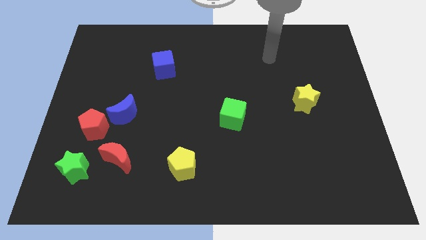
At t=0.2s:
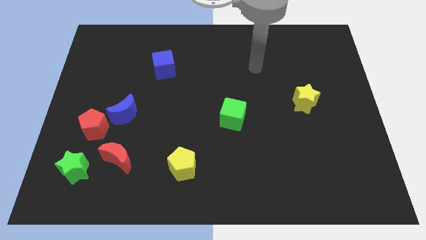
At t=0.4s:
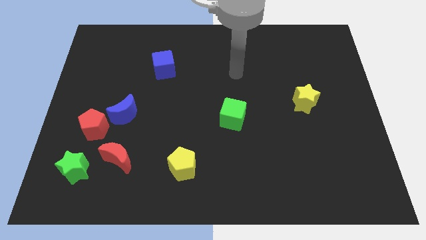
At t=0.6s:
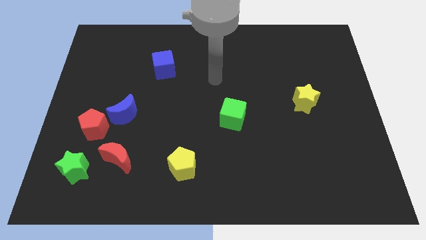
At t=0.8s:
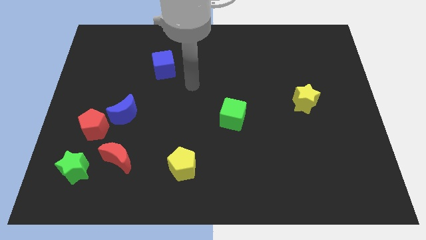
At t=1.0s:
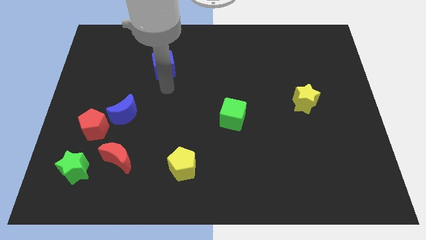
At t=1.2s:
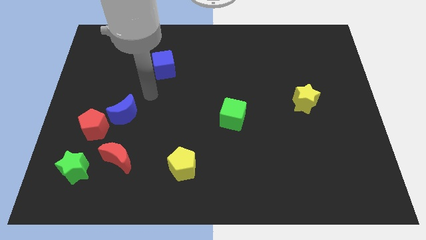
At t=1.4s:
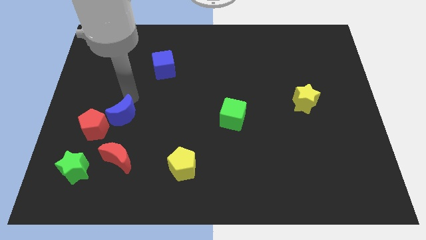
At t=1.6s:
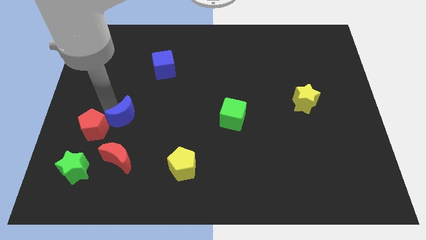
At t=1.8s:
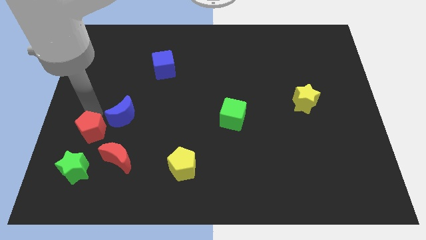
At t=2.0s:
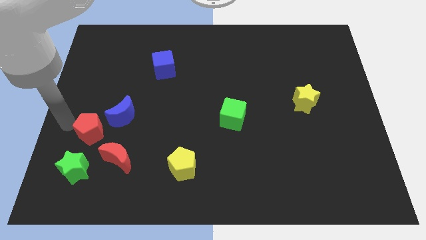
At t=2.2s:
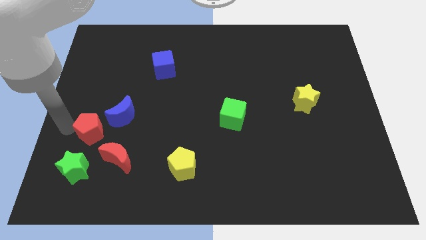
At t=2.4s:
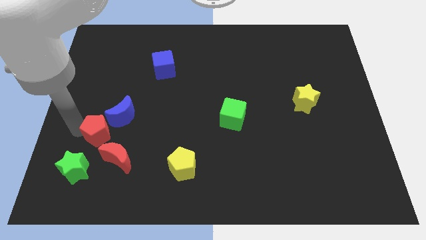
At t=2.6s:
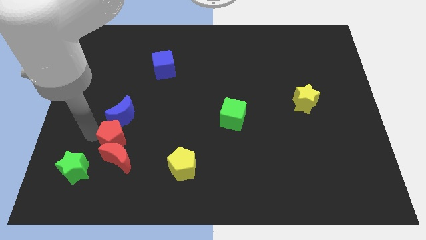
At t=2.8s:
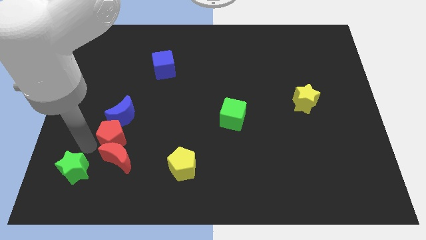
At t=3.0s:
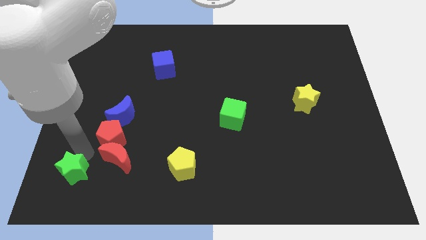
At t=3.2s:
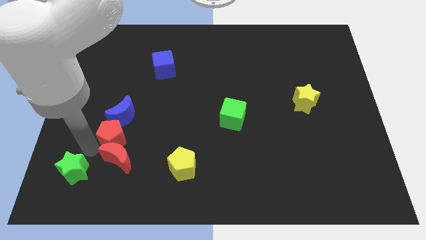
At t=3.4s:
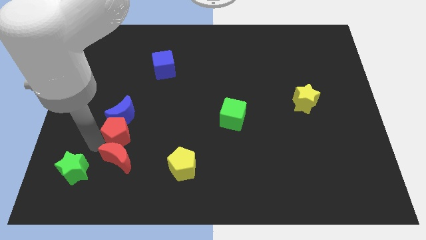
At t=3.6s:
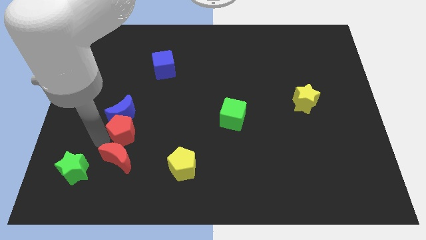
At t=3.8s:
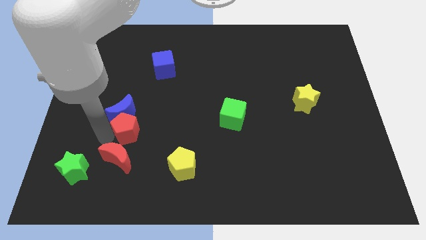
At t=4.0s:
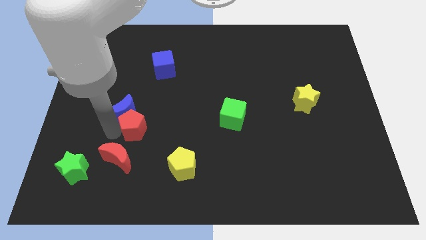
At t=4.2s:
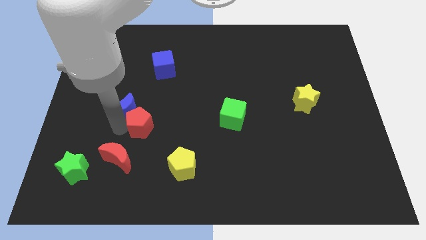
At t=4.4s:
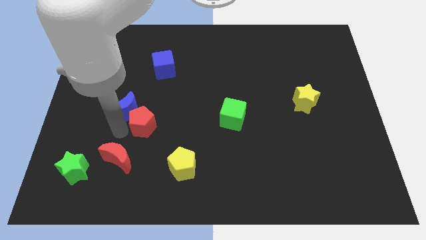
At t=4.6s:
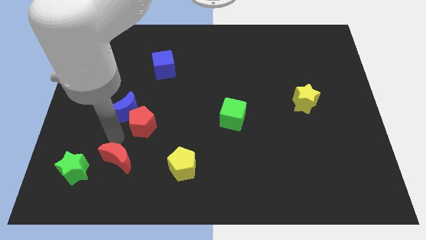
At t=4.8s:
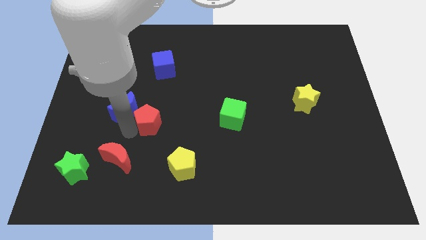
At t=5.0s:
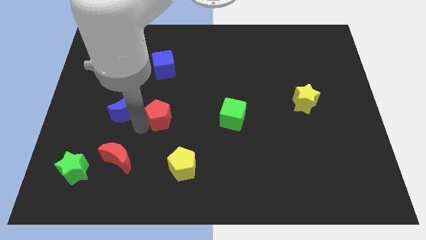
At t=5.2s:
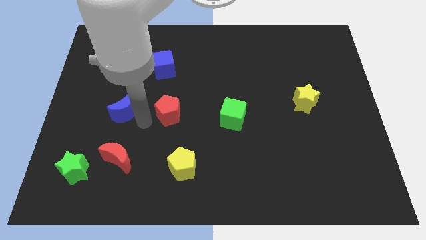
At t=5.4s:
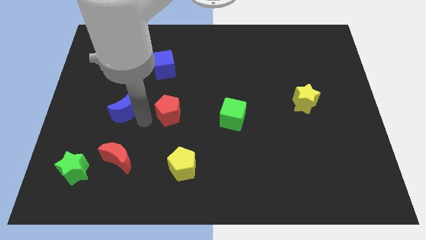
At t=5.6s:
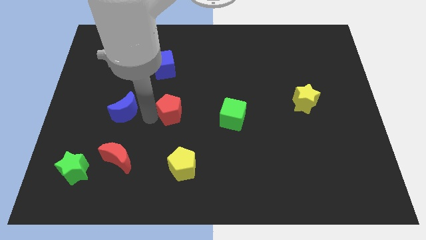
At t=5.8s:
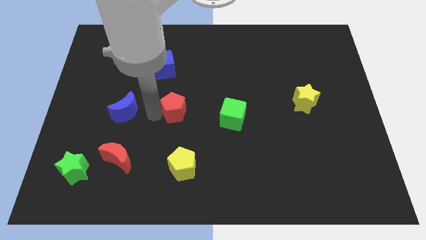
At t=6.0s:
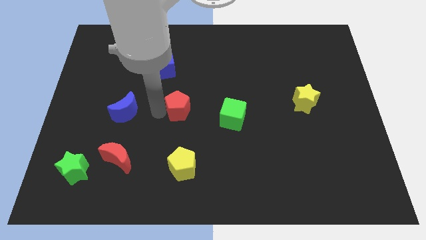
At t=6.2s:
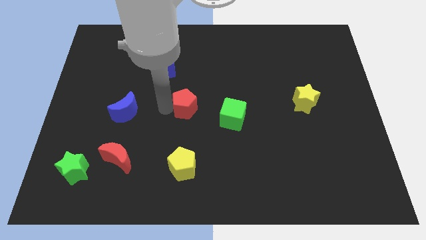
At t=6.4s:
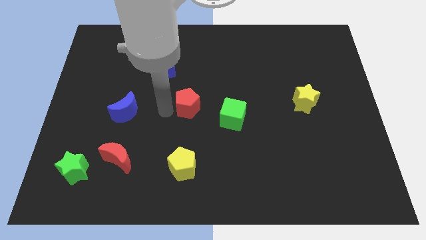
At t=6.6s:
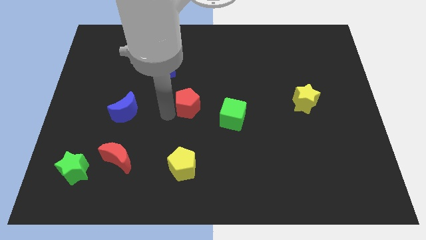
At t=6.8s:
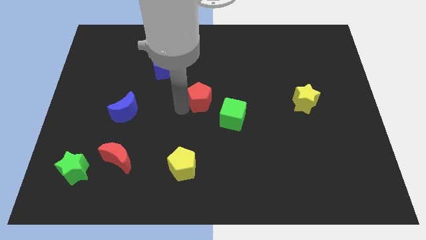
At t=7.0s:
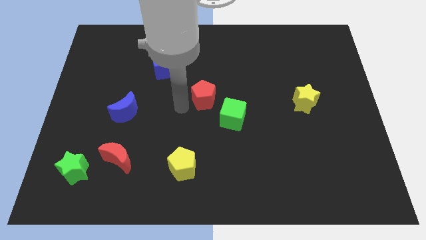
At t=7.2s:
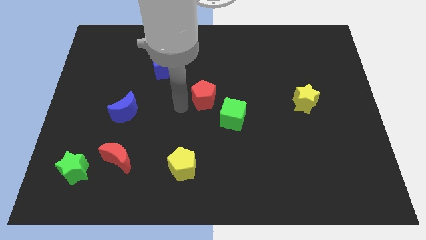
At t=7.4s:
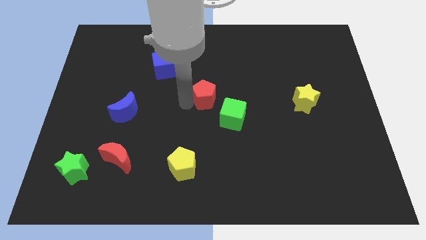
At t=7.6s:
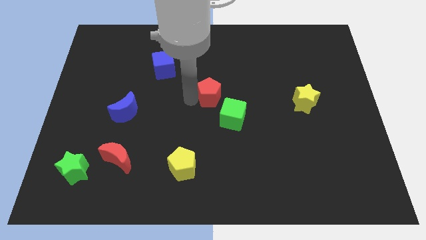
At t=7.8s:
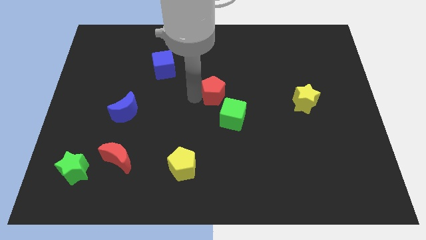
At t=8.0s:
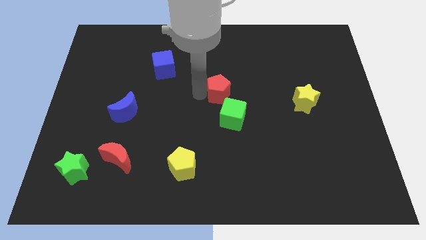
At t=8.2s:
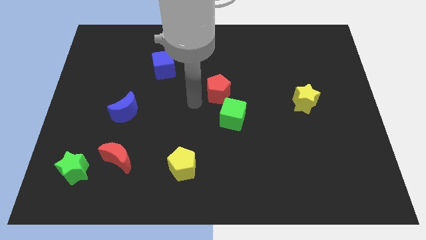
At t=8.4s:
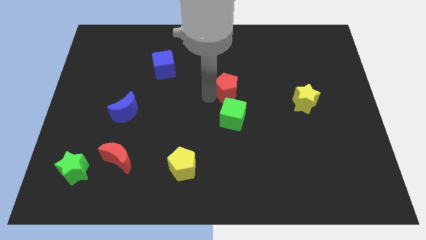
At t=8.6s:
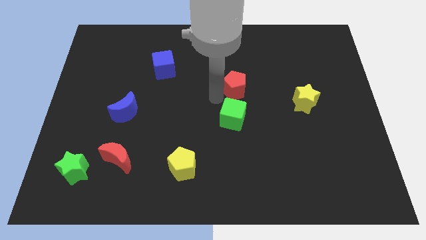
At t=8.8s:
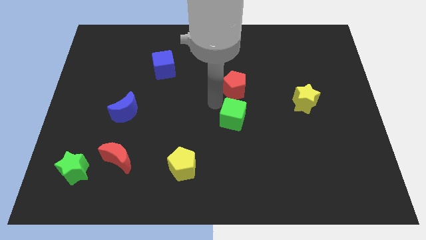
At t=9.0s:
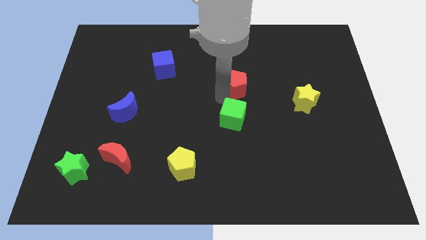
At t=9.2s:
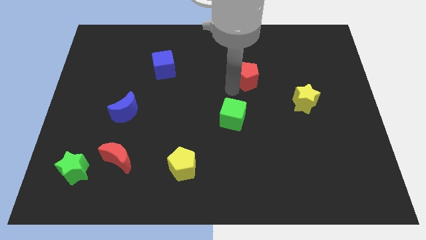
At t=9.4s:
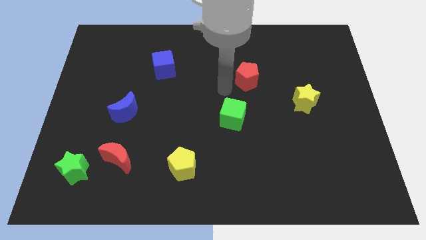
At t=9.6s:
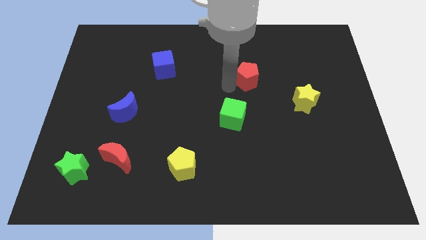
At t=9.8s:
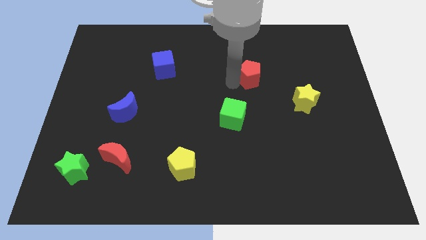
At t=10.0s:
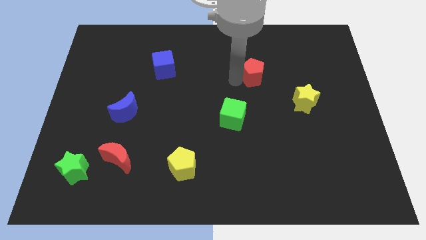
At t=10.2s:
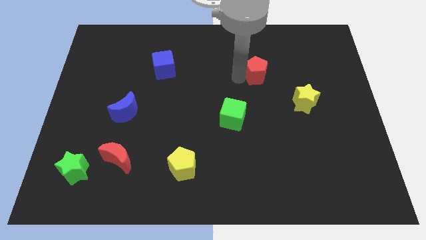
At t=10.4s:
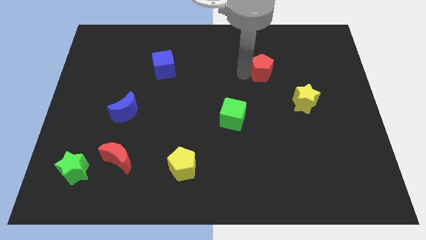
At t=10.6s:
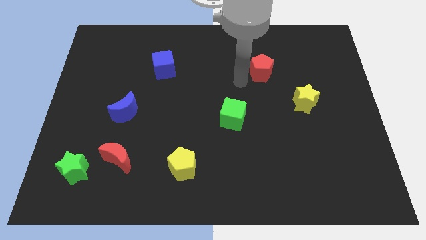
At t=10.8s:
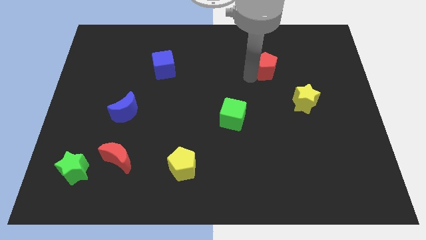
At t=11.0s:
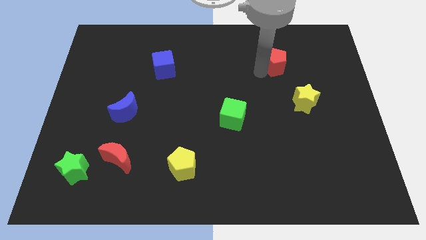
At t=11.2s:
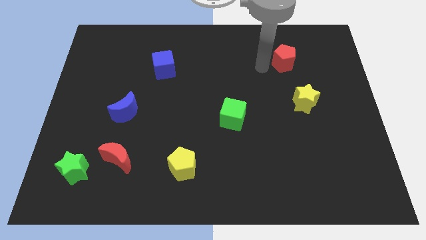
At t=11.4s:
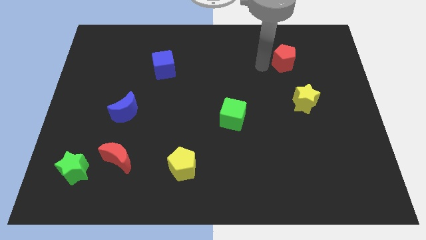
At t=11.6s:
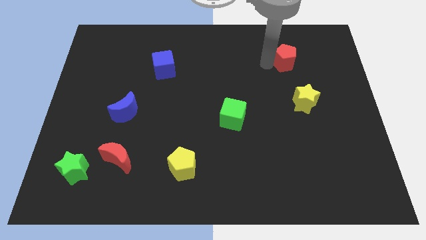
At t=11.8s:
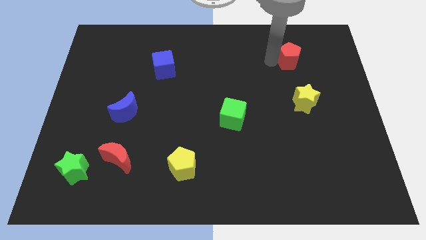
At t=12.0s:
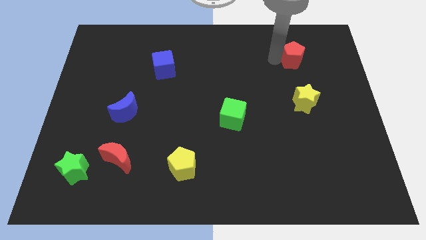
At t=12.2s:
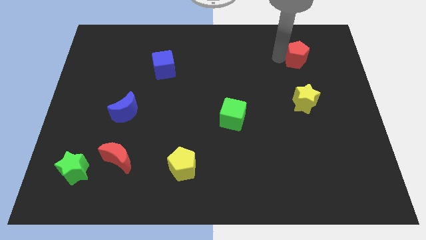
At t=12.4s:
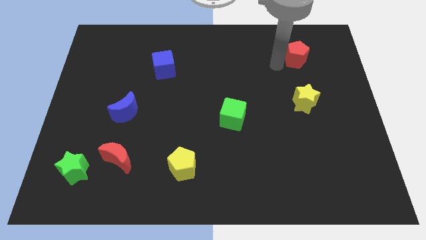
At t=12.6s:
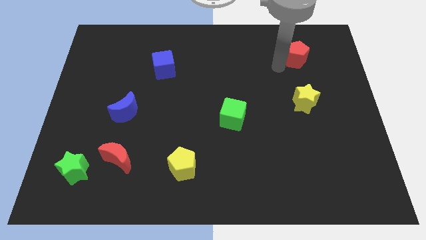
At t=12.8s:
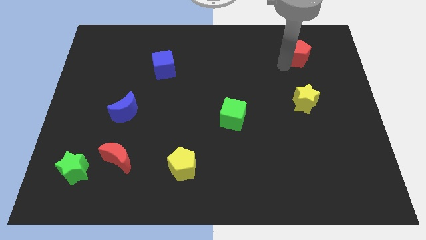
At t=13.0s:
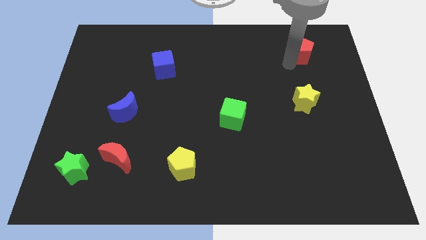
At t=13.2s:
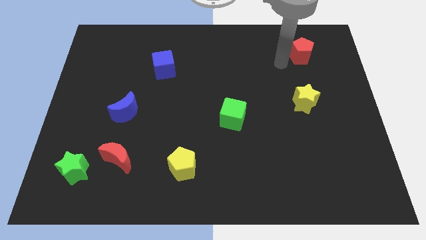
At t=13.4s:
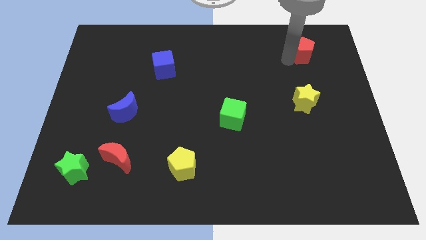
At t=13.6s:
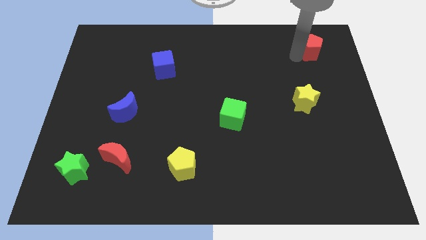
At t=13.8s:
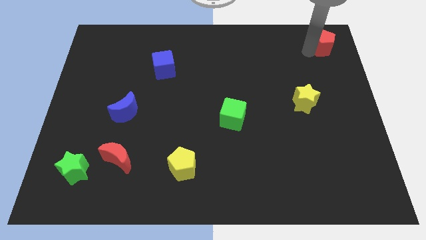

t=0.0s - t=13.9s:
move the red pentagon to the top right

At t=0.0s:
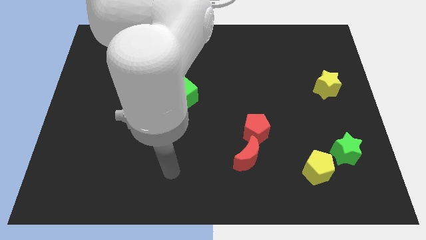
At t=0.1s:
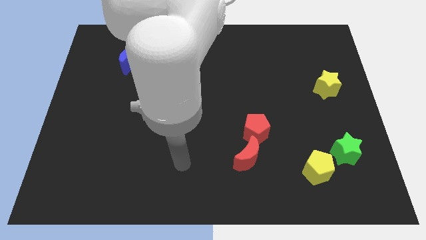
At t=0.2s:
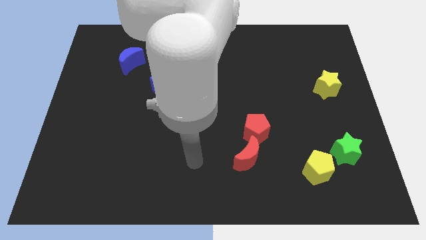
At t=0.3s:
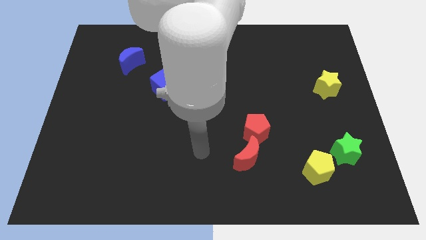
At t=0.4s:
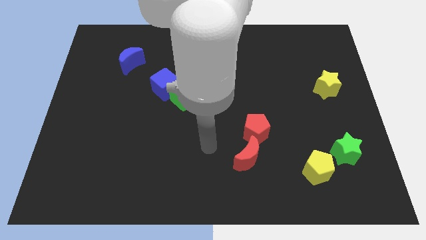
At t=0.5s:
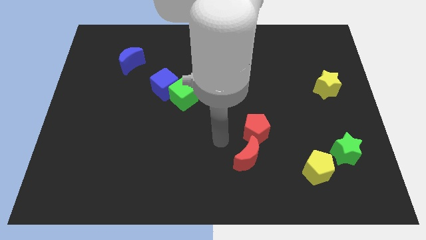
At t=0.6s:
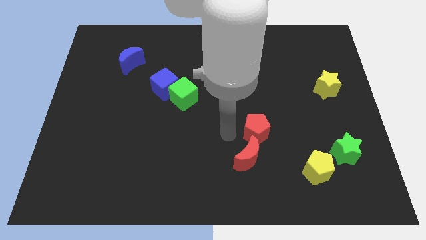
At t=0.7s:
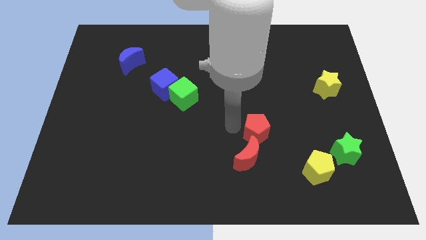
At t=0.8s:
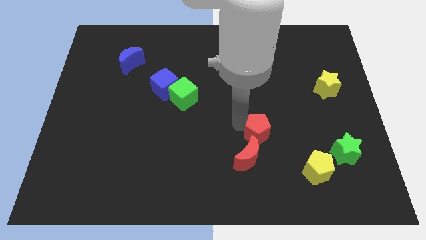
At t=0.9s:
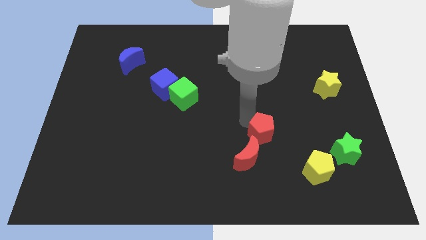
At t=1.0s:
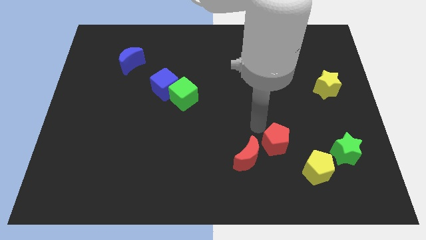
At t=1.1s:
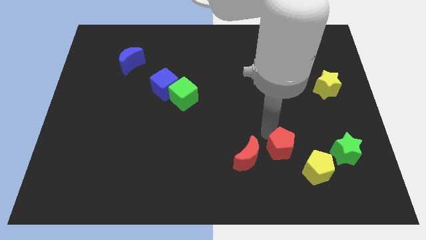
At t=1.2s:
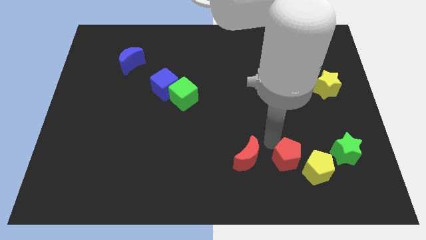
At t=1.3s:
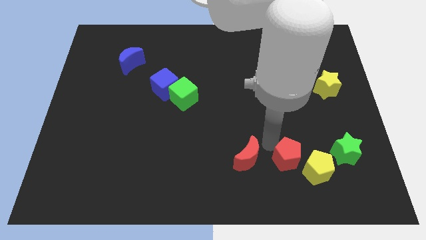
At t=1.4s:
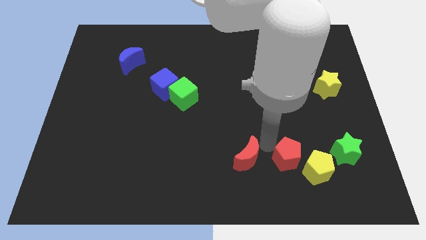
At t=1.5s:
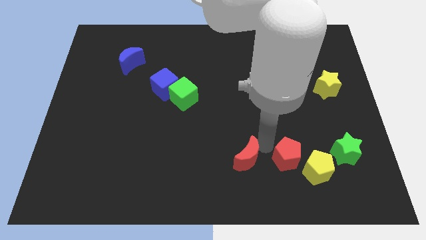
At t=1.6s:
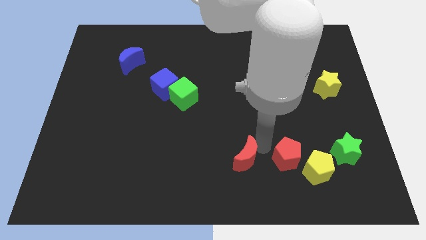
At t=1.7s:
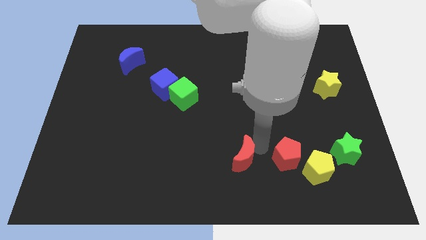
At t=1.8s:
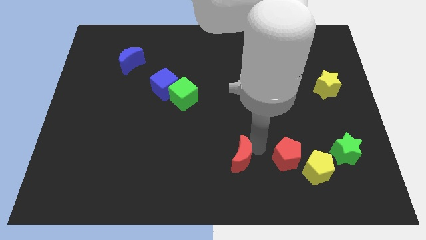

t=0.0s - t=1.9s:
put the red moon to the bottom side
